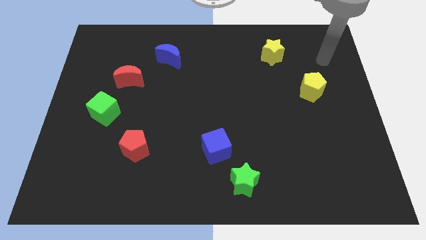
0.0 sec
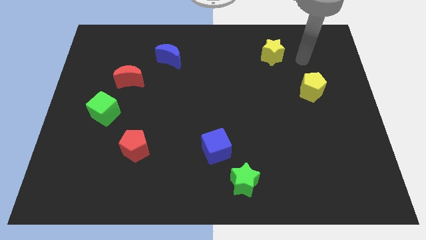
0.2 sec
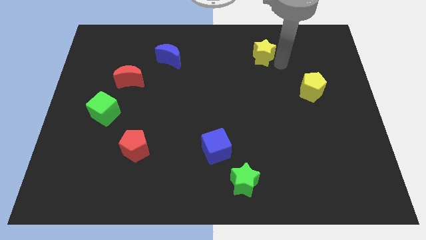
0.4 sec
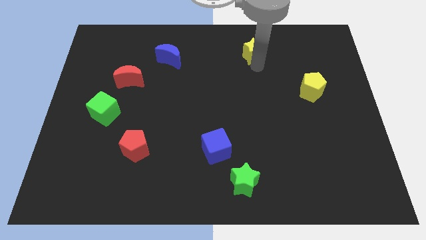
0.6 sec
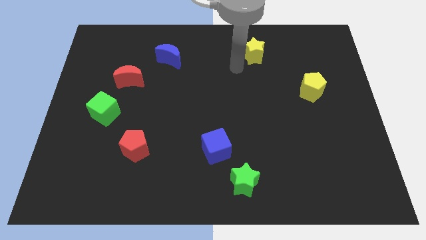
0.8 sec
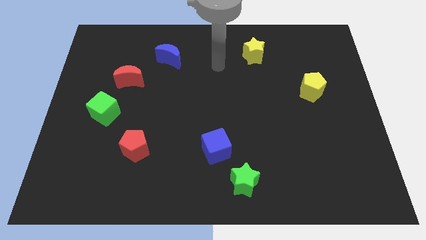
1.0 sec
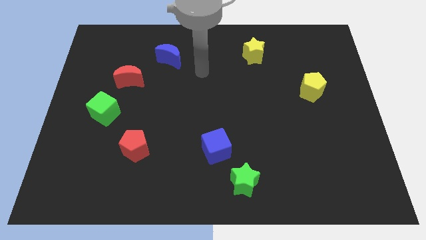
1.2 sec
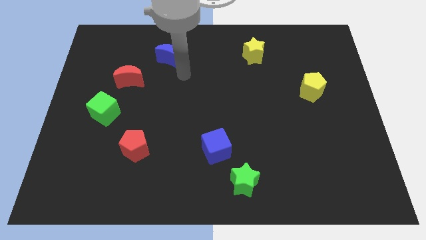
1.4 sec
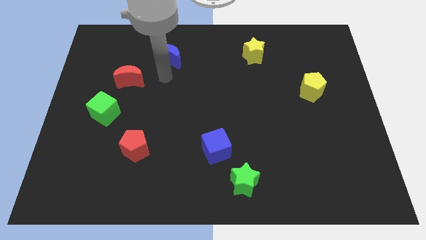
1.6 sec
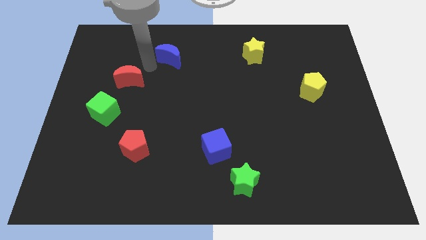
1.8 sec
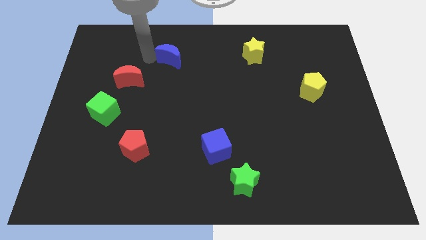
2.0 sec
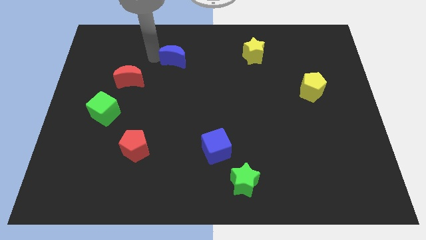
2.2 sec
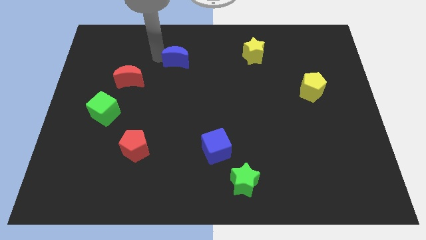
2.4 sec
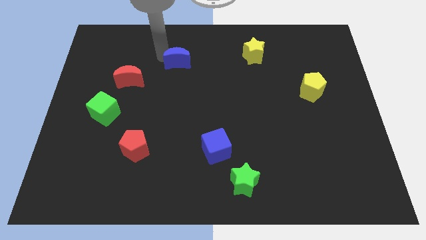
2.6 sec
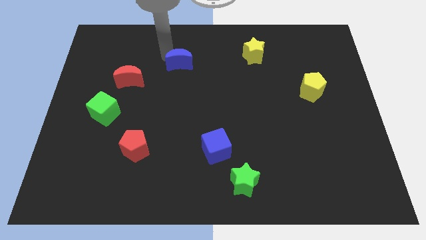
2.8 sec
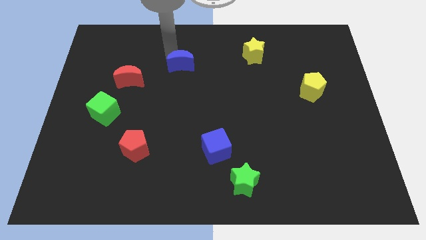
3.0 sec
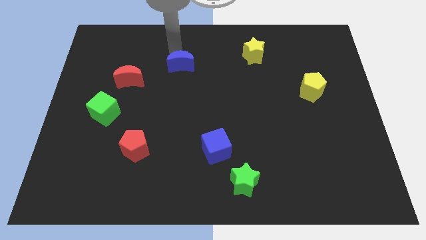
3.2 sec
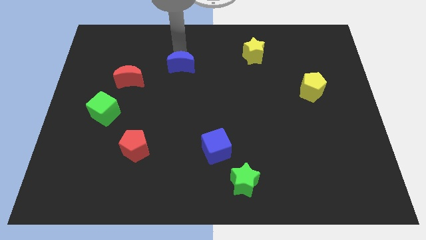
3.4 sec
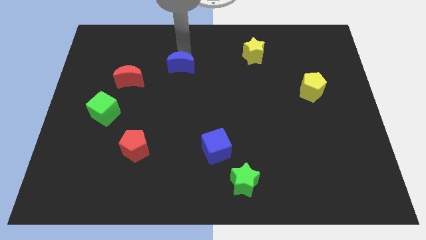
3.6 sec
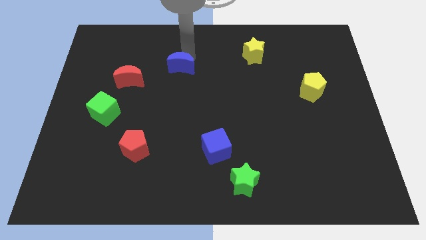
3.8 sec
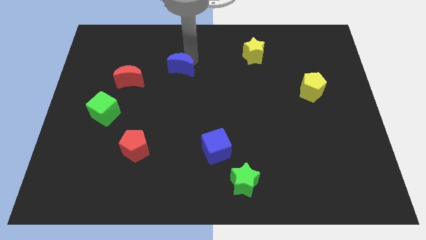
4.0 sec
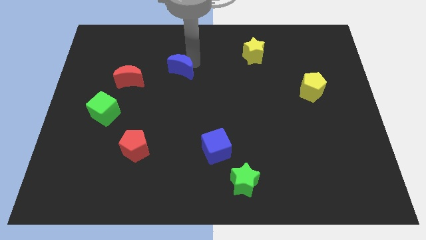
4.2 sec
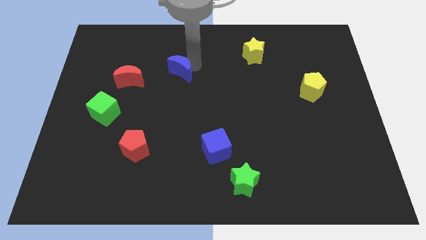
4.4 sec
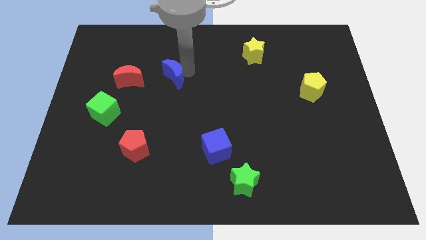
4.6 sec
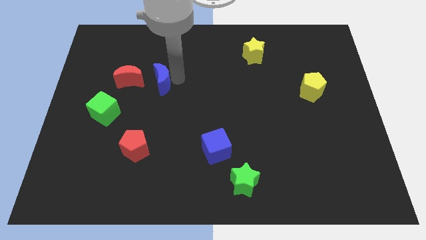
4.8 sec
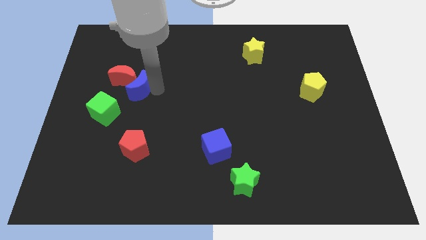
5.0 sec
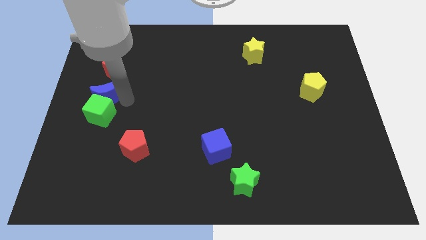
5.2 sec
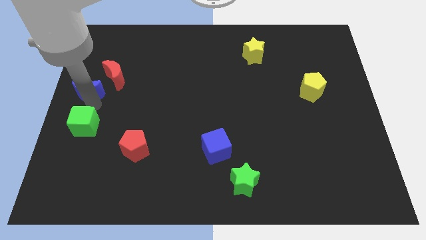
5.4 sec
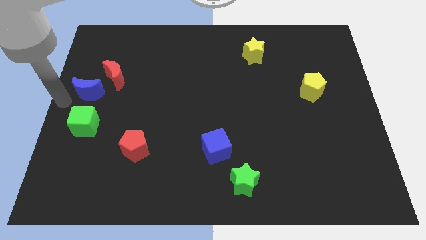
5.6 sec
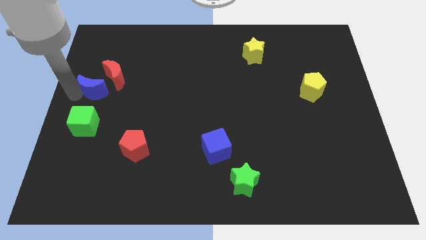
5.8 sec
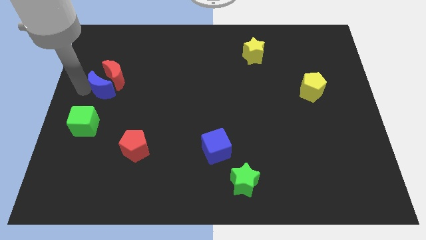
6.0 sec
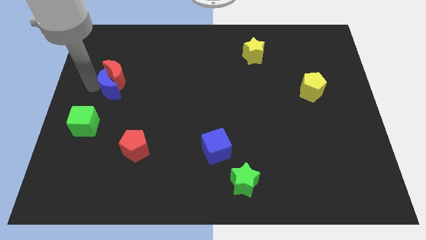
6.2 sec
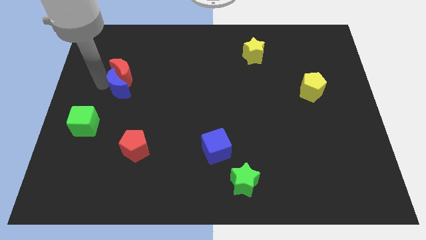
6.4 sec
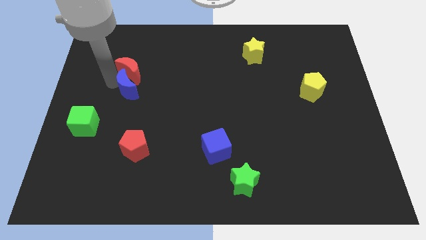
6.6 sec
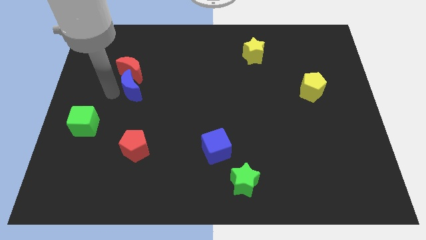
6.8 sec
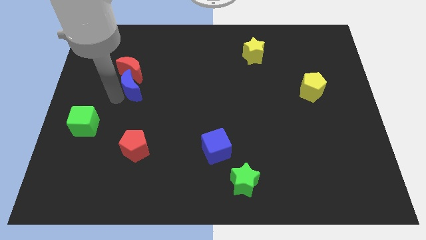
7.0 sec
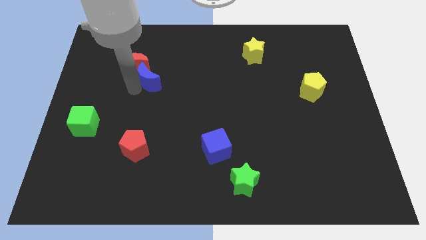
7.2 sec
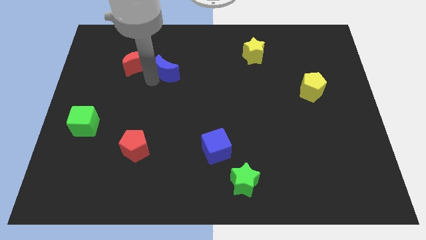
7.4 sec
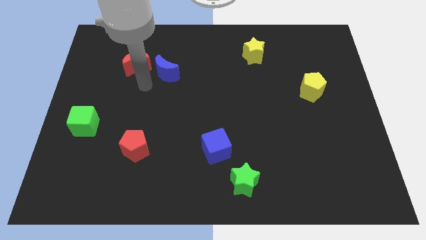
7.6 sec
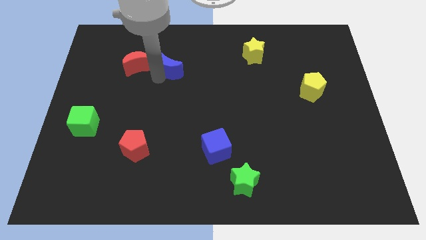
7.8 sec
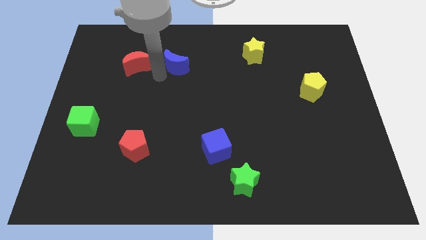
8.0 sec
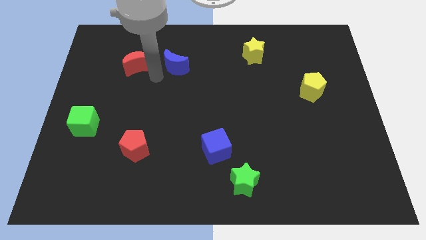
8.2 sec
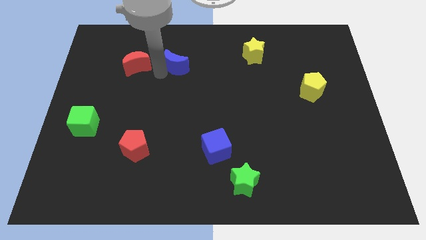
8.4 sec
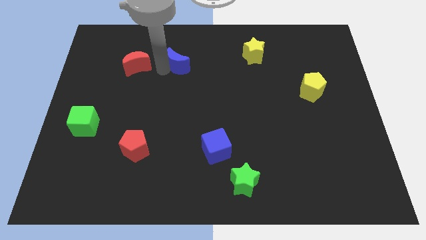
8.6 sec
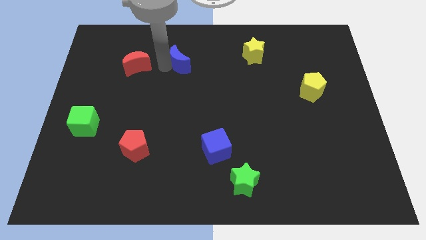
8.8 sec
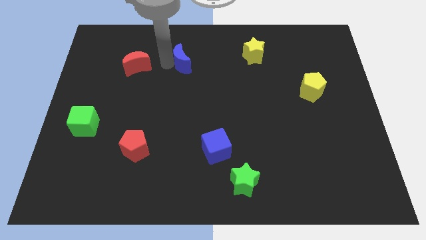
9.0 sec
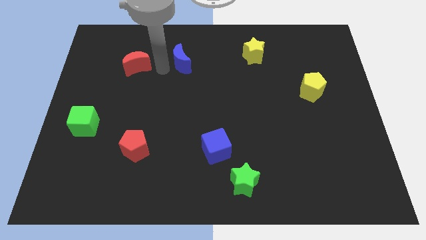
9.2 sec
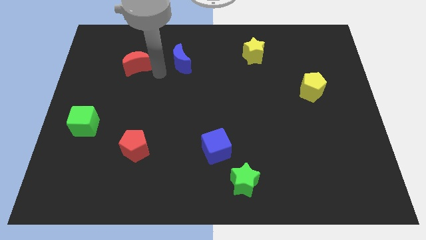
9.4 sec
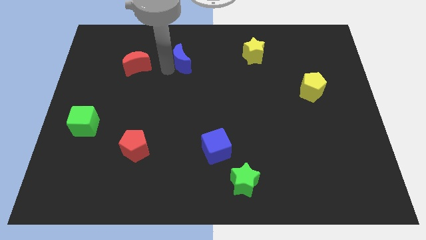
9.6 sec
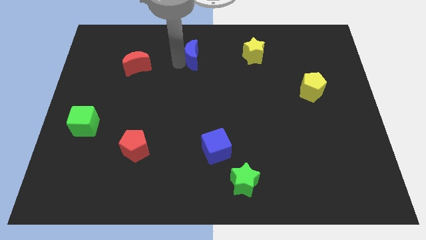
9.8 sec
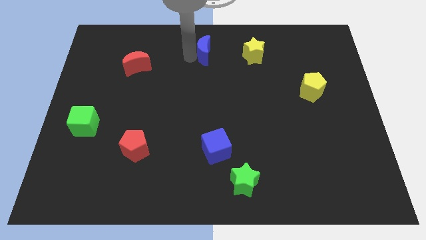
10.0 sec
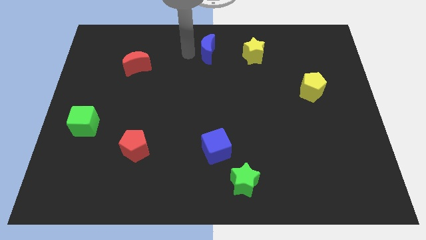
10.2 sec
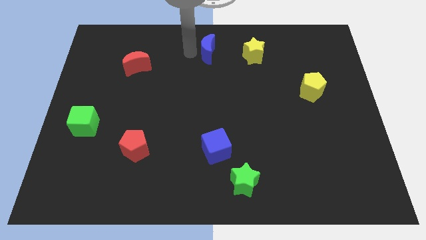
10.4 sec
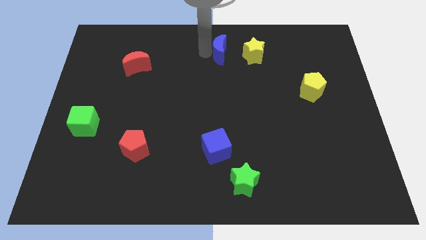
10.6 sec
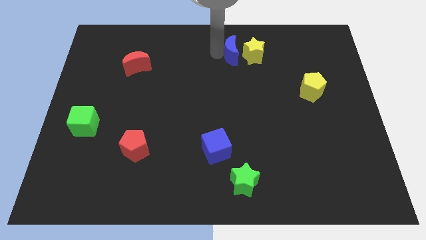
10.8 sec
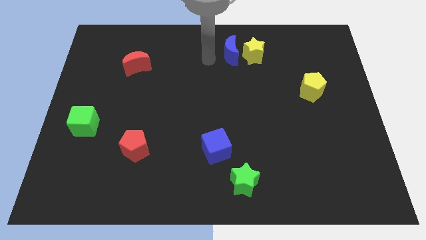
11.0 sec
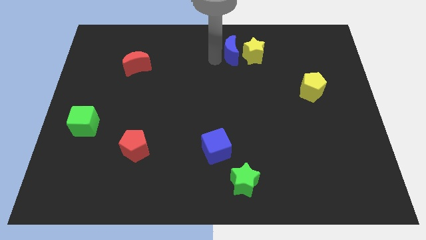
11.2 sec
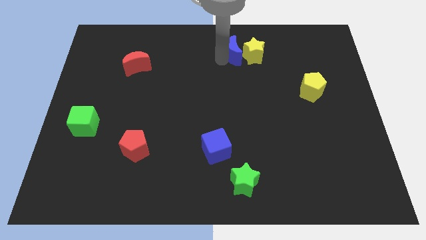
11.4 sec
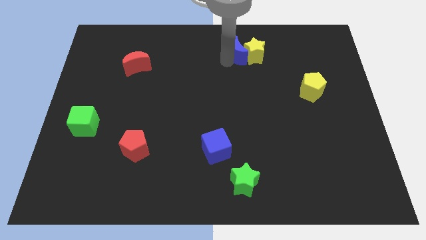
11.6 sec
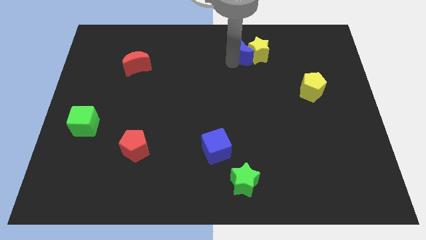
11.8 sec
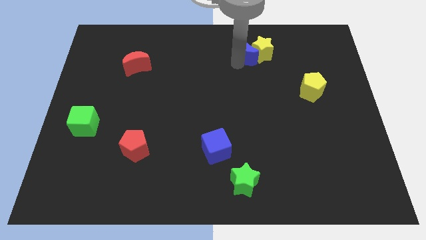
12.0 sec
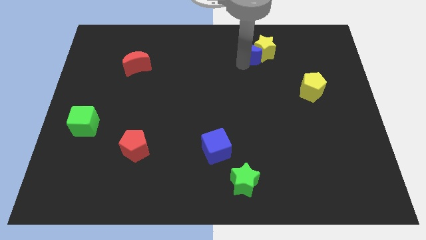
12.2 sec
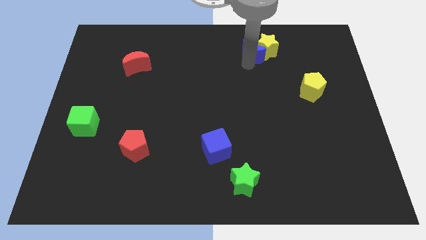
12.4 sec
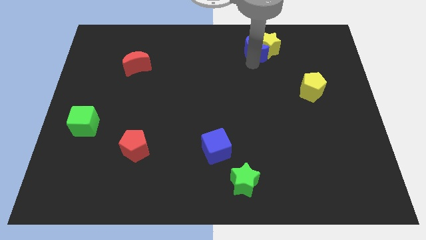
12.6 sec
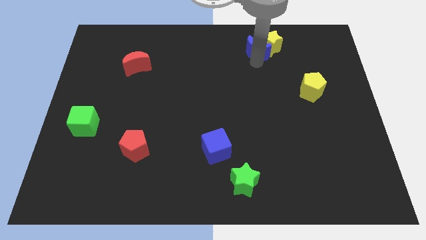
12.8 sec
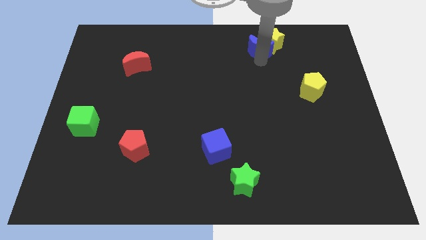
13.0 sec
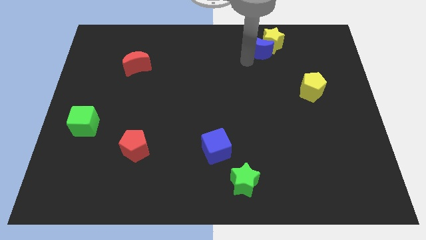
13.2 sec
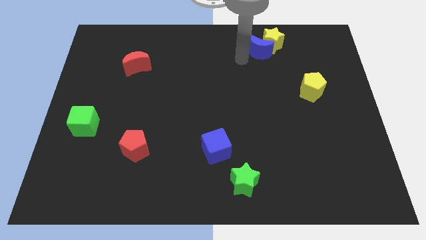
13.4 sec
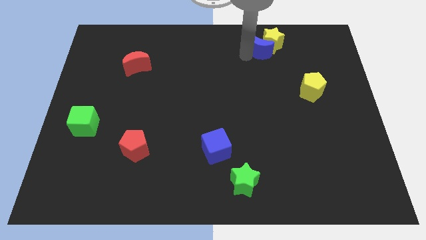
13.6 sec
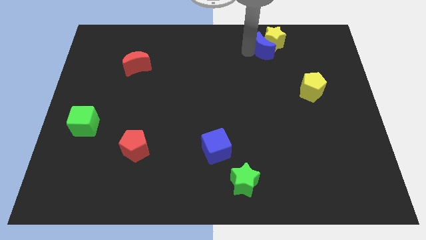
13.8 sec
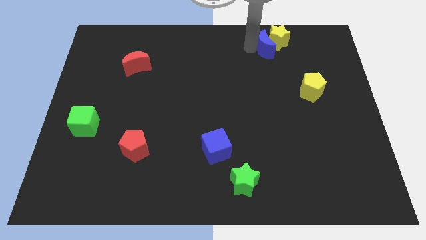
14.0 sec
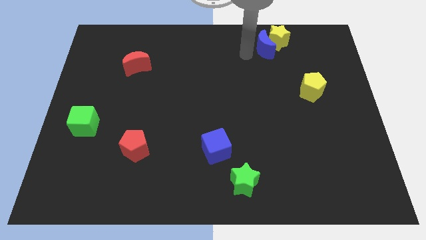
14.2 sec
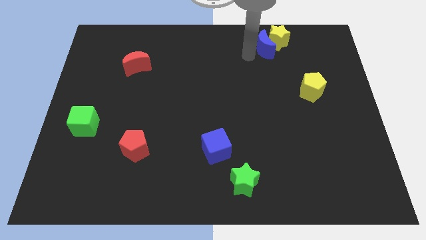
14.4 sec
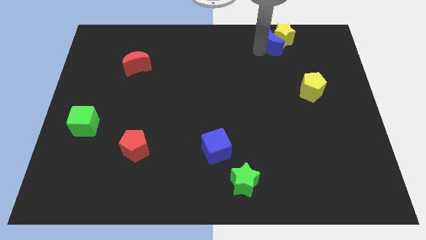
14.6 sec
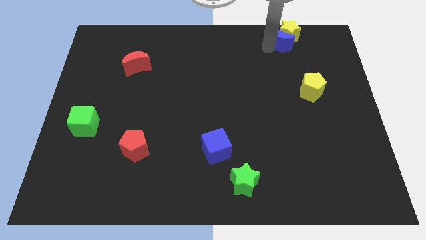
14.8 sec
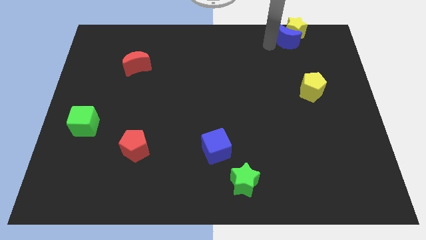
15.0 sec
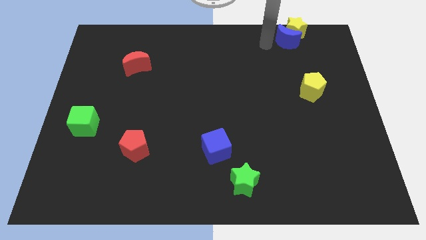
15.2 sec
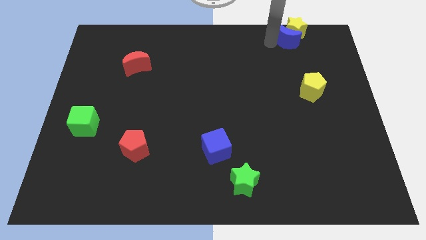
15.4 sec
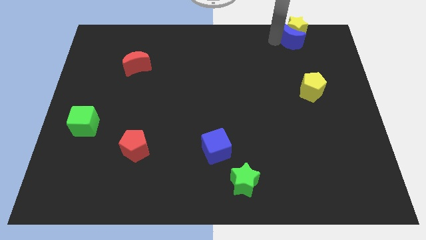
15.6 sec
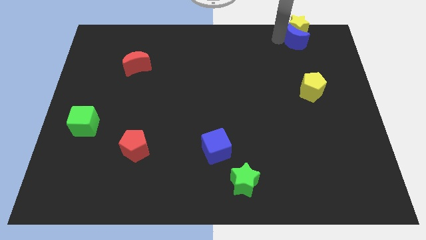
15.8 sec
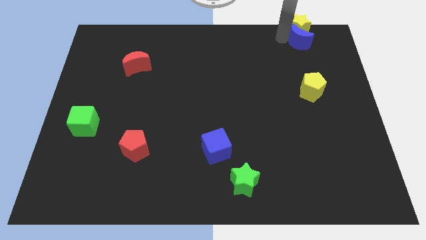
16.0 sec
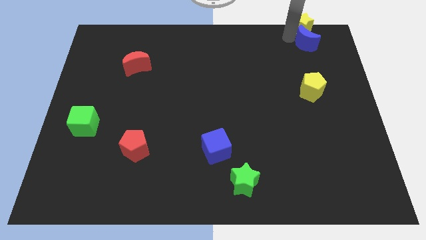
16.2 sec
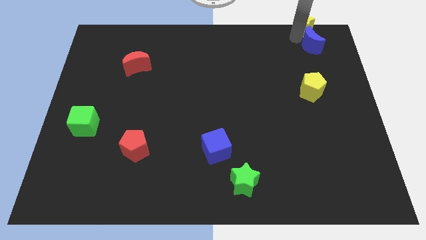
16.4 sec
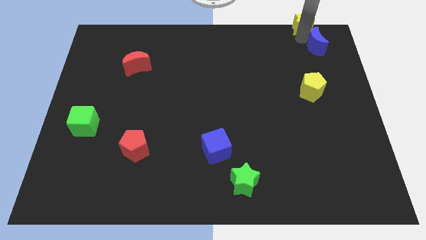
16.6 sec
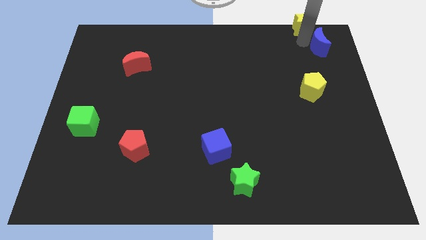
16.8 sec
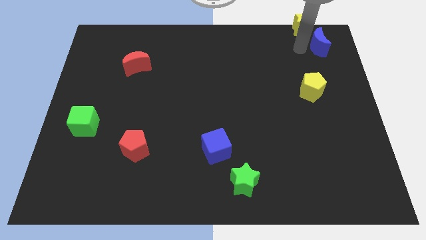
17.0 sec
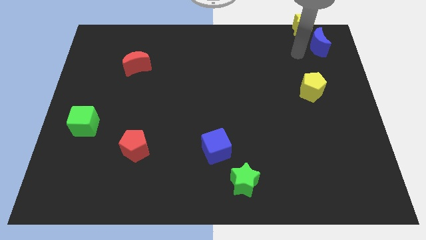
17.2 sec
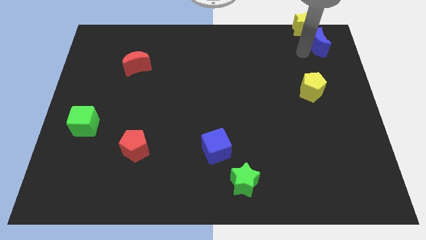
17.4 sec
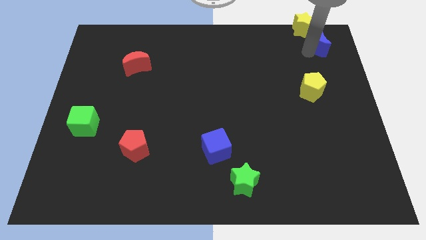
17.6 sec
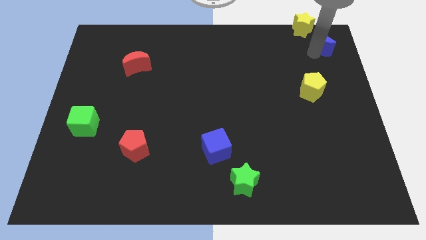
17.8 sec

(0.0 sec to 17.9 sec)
move the blue moon to the top right
